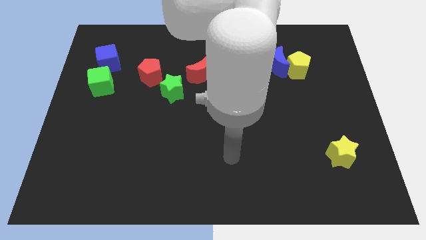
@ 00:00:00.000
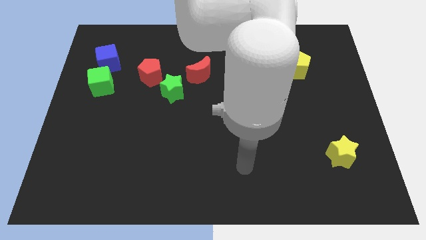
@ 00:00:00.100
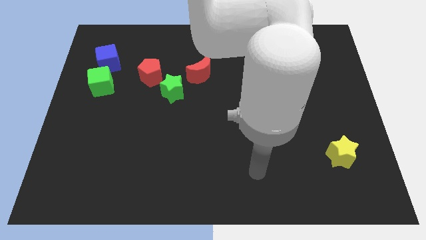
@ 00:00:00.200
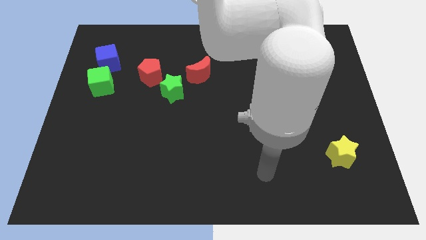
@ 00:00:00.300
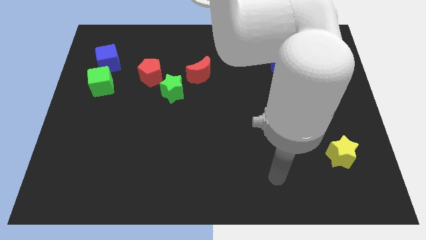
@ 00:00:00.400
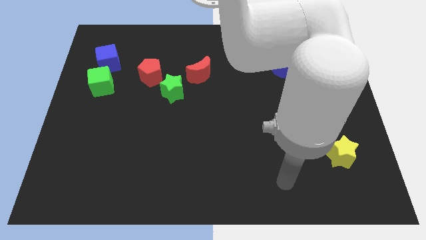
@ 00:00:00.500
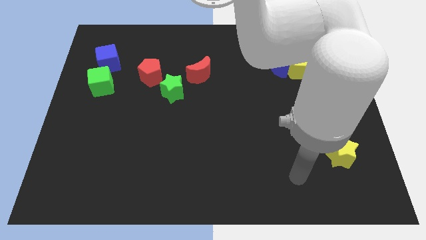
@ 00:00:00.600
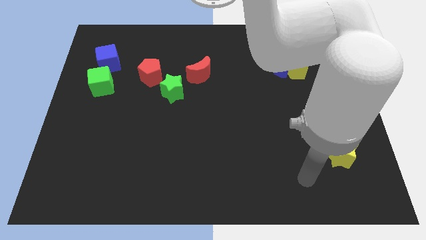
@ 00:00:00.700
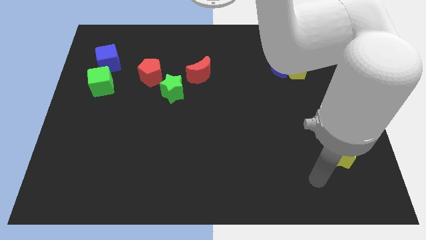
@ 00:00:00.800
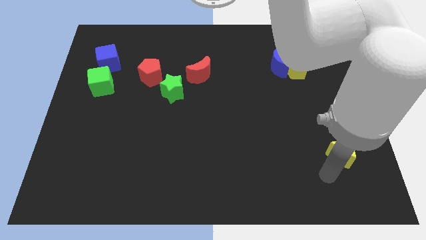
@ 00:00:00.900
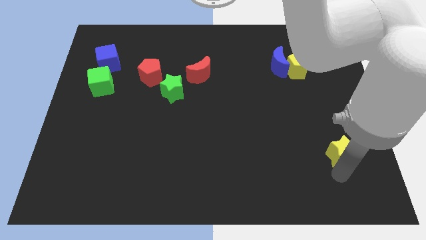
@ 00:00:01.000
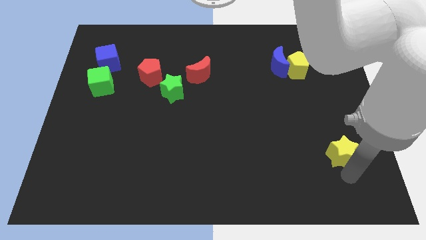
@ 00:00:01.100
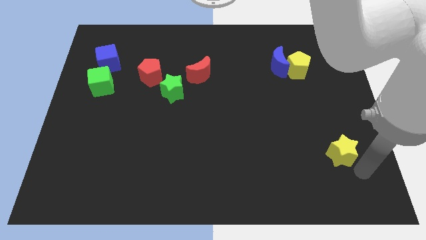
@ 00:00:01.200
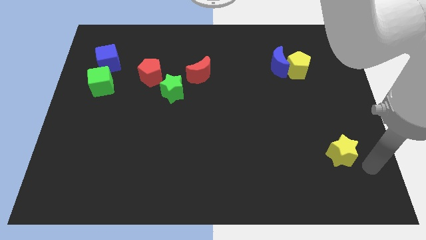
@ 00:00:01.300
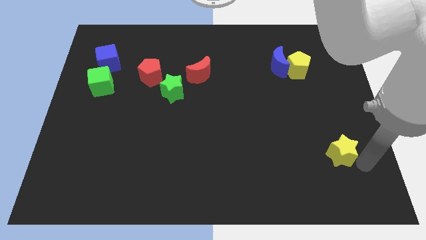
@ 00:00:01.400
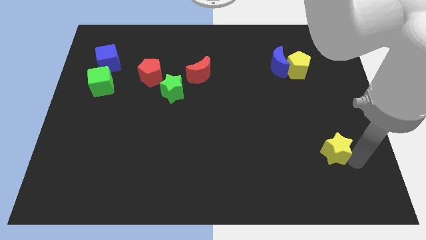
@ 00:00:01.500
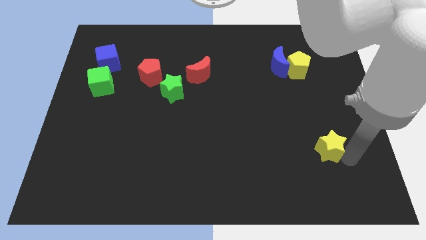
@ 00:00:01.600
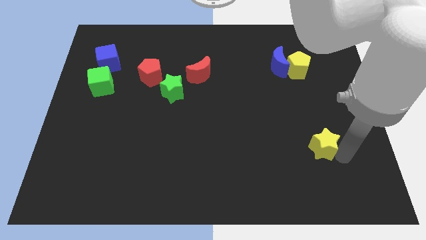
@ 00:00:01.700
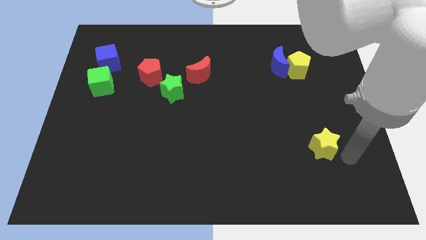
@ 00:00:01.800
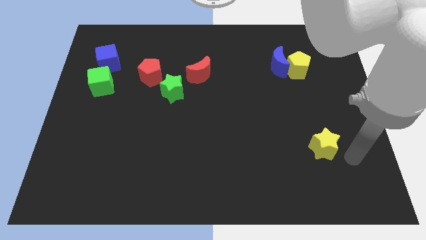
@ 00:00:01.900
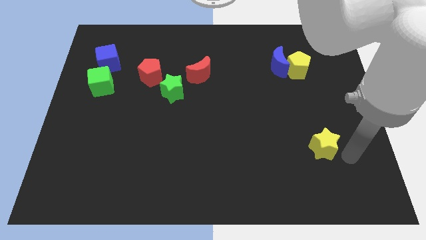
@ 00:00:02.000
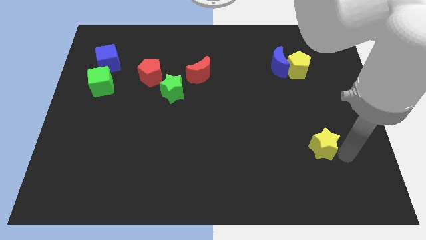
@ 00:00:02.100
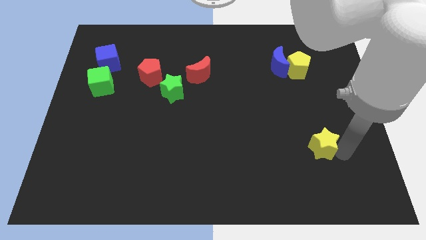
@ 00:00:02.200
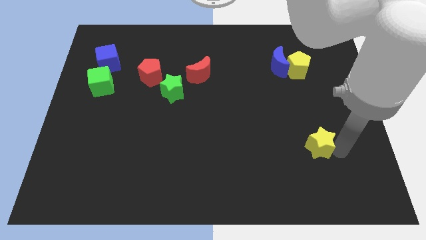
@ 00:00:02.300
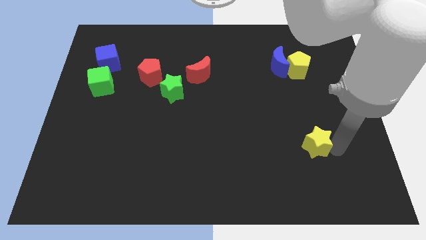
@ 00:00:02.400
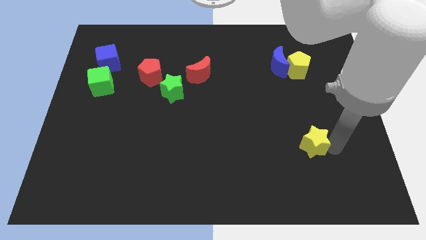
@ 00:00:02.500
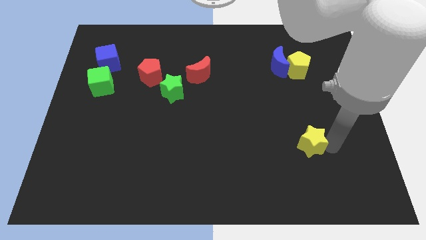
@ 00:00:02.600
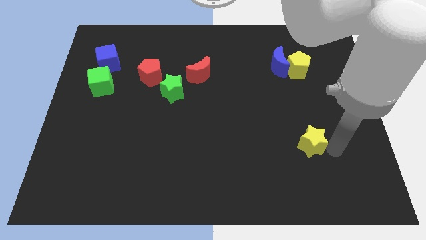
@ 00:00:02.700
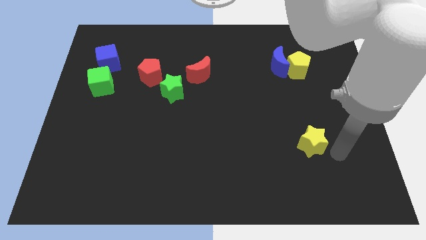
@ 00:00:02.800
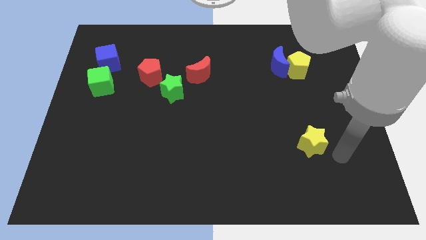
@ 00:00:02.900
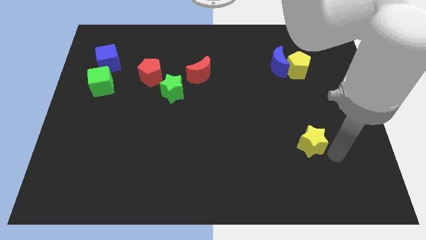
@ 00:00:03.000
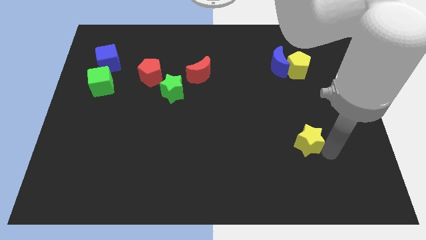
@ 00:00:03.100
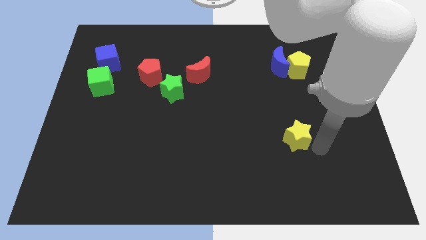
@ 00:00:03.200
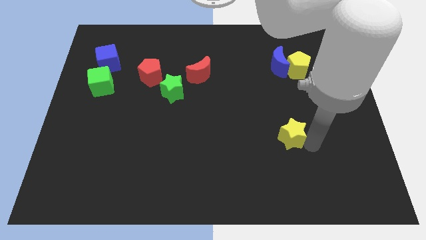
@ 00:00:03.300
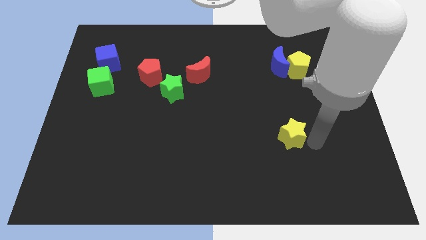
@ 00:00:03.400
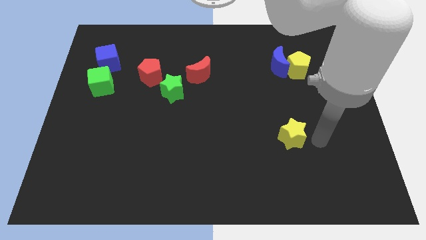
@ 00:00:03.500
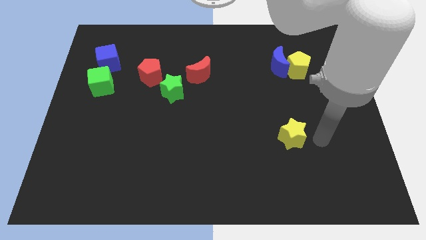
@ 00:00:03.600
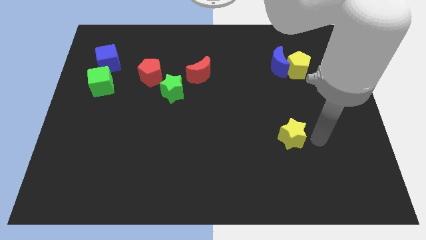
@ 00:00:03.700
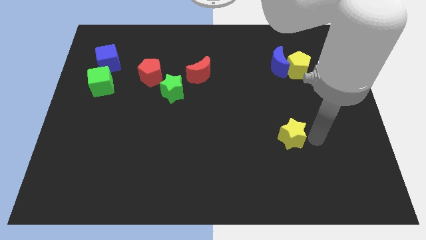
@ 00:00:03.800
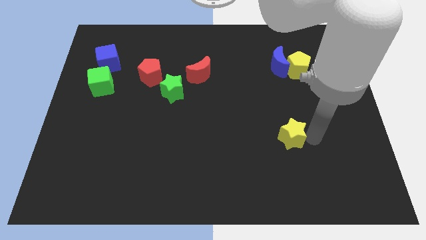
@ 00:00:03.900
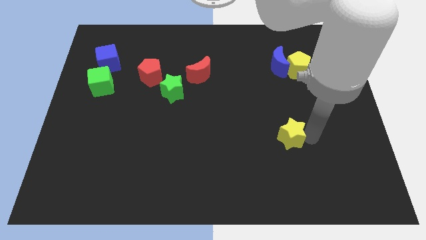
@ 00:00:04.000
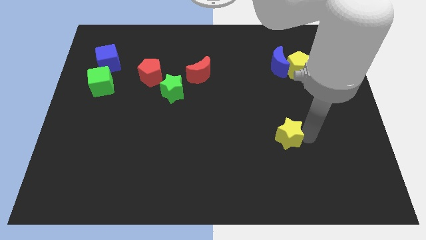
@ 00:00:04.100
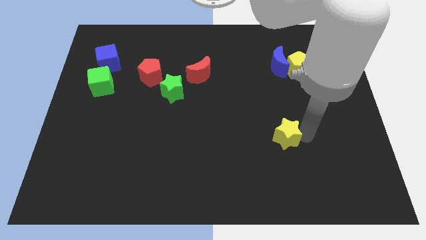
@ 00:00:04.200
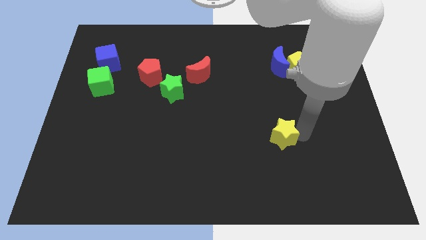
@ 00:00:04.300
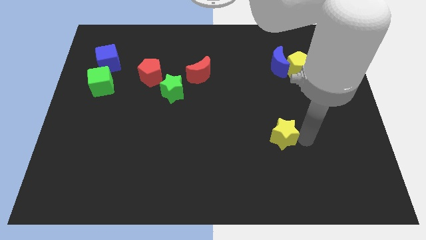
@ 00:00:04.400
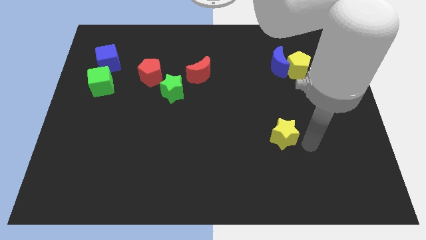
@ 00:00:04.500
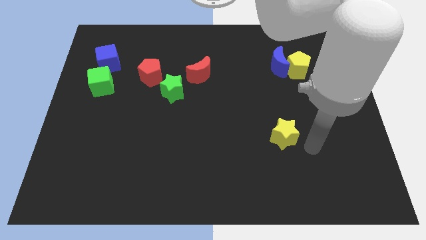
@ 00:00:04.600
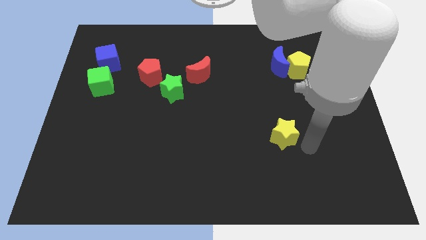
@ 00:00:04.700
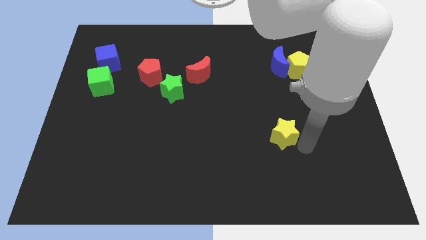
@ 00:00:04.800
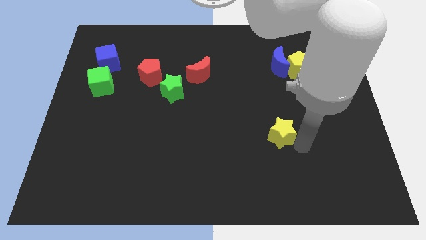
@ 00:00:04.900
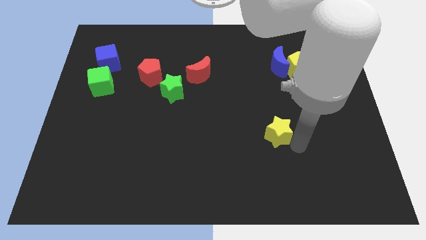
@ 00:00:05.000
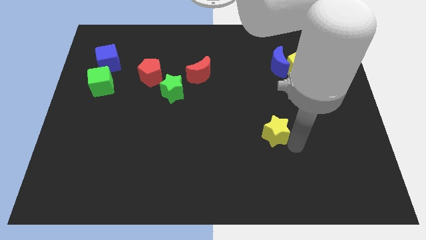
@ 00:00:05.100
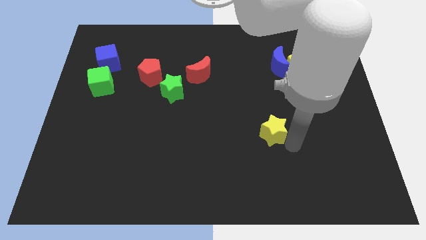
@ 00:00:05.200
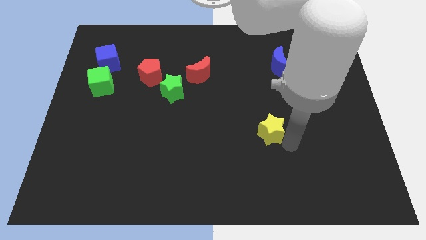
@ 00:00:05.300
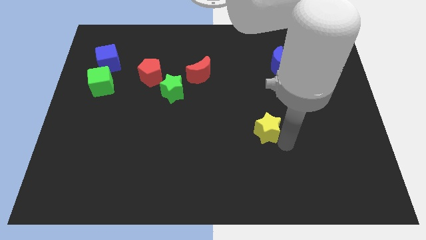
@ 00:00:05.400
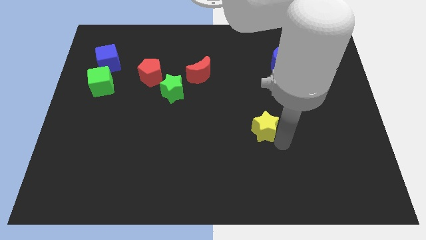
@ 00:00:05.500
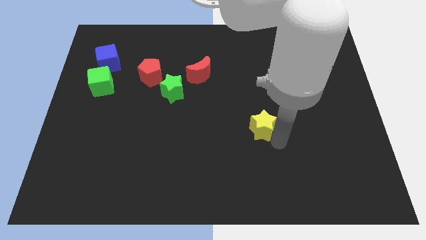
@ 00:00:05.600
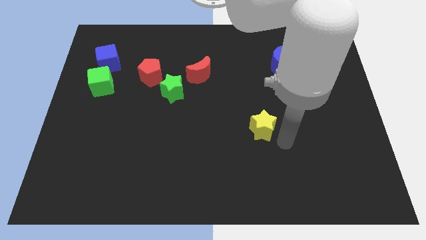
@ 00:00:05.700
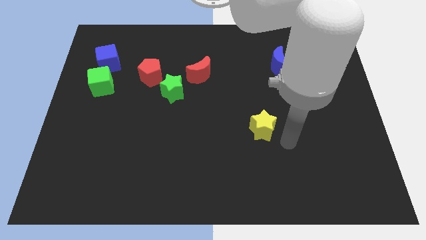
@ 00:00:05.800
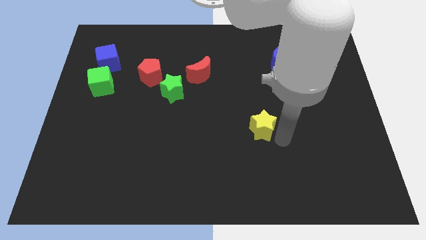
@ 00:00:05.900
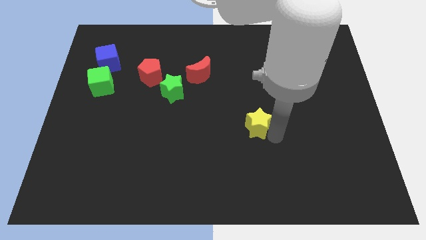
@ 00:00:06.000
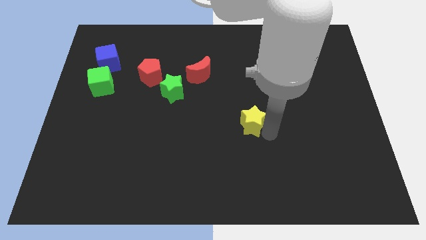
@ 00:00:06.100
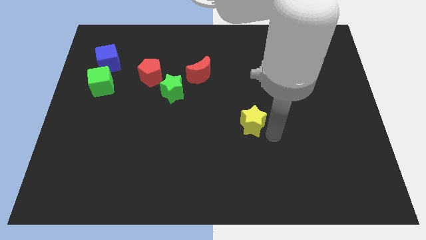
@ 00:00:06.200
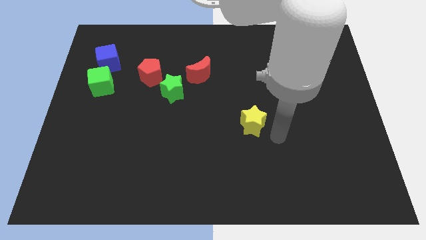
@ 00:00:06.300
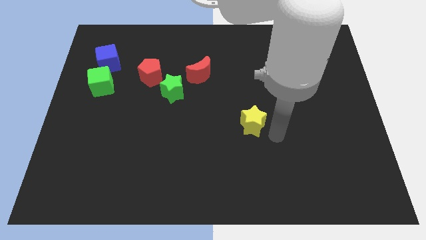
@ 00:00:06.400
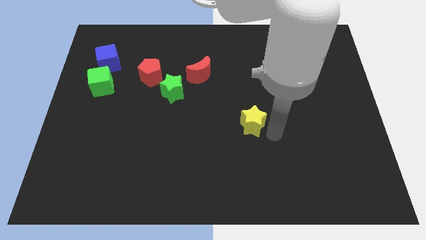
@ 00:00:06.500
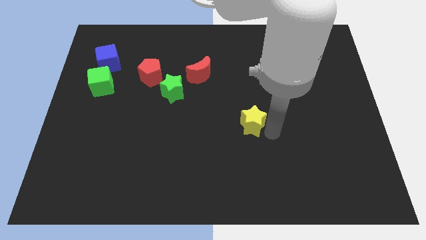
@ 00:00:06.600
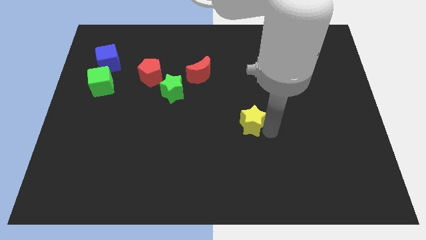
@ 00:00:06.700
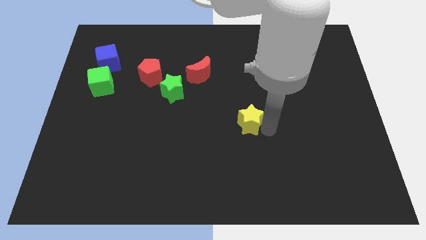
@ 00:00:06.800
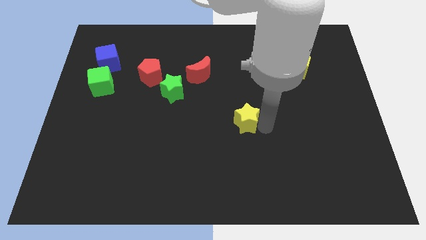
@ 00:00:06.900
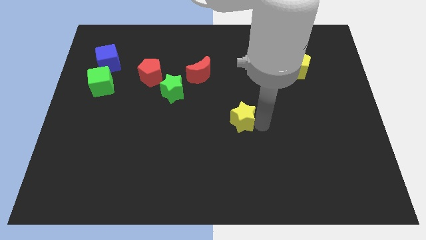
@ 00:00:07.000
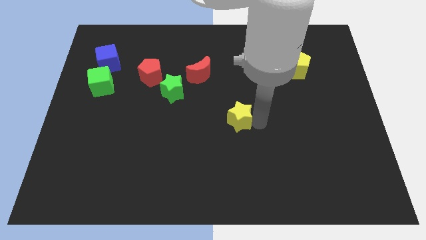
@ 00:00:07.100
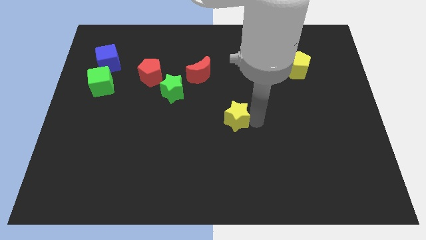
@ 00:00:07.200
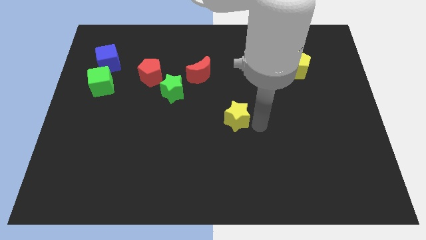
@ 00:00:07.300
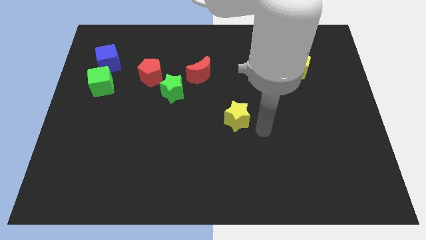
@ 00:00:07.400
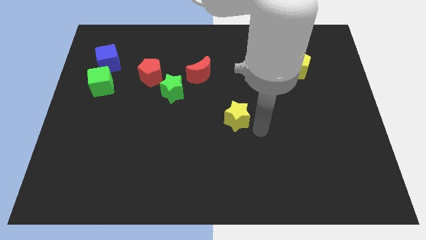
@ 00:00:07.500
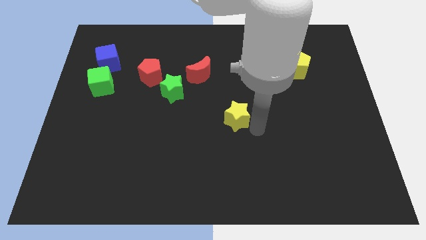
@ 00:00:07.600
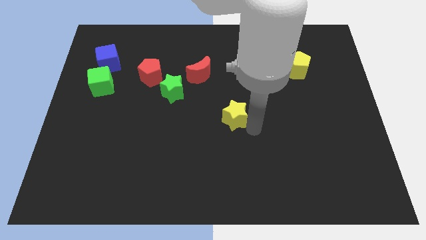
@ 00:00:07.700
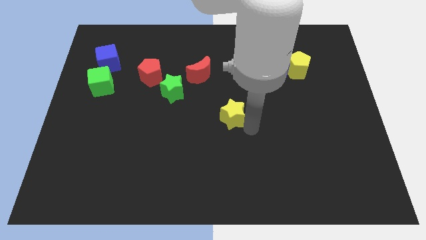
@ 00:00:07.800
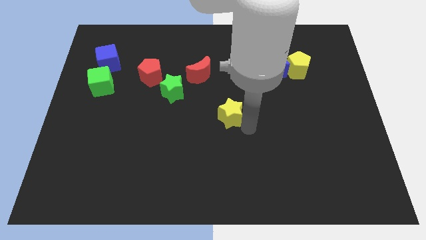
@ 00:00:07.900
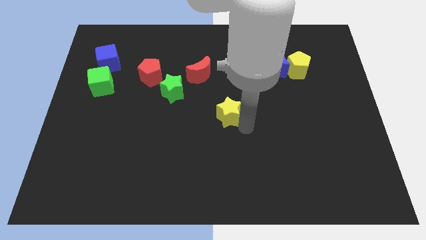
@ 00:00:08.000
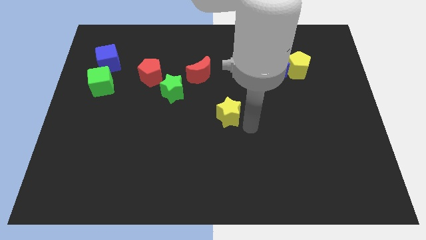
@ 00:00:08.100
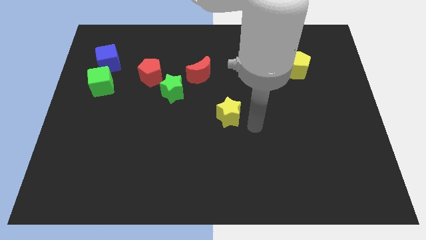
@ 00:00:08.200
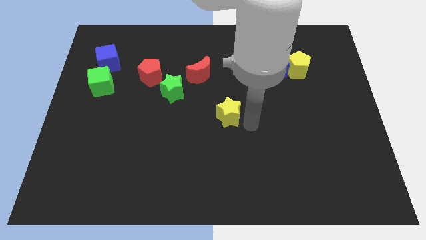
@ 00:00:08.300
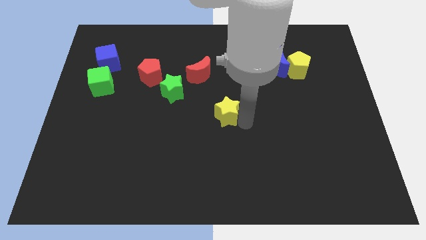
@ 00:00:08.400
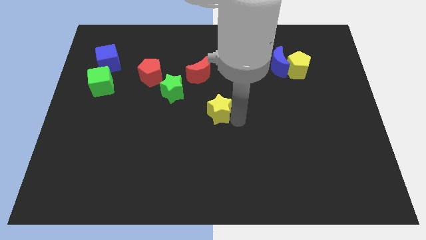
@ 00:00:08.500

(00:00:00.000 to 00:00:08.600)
slide the yellow star to the bottom side of the red moon
